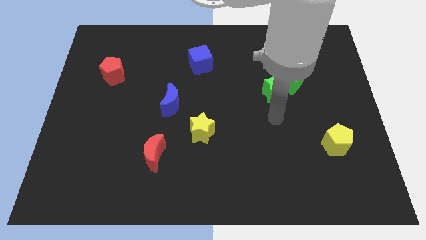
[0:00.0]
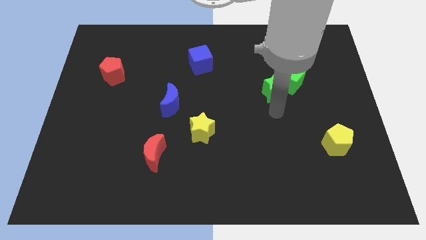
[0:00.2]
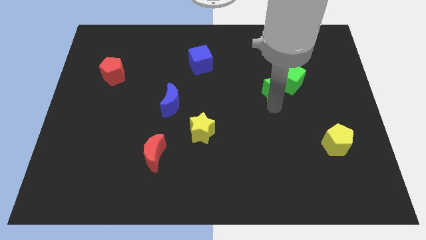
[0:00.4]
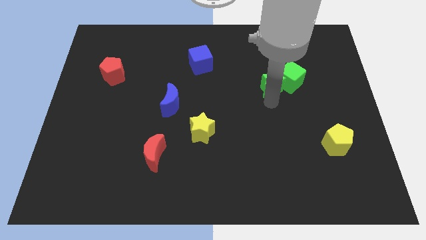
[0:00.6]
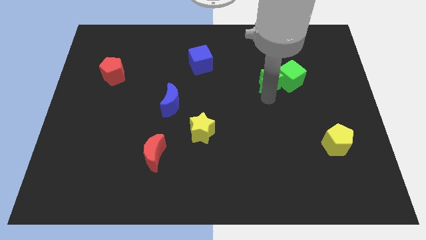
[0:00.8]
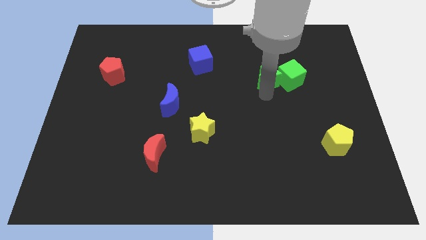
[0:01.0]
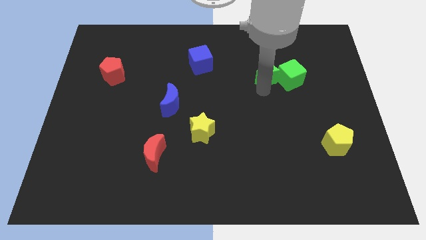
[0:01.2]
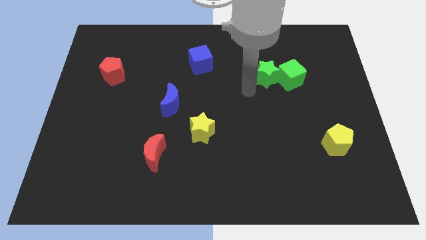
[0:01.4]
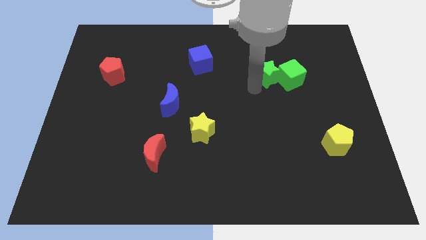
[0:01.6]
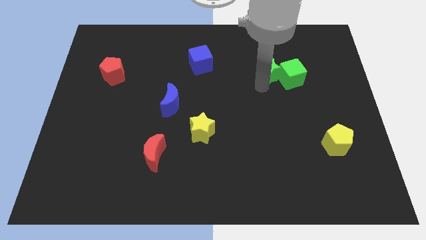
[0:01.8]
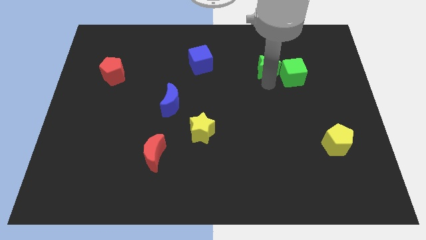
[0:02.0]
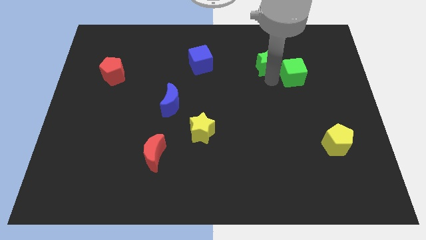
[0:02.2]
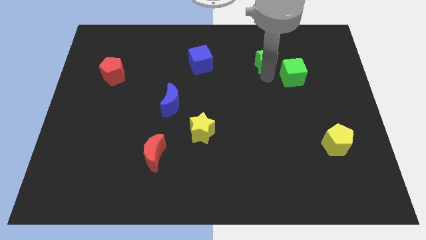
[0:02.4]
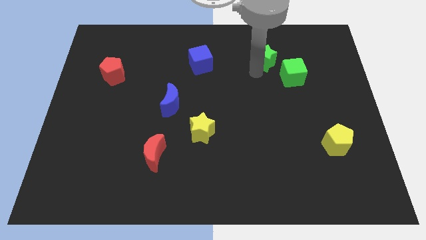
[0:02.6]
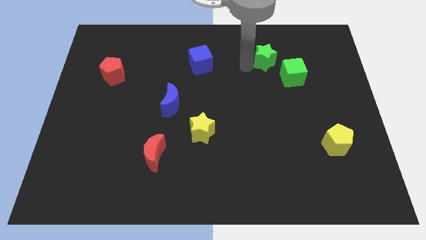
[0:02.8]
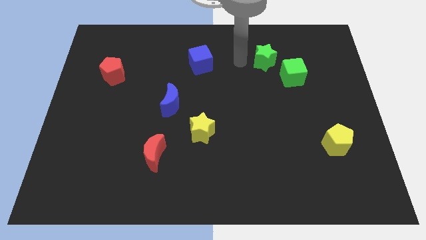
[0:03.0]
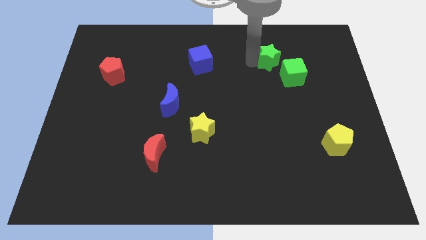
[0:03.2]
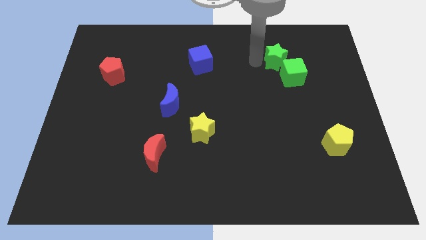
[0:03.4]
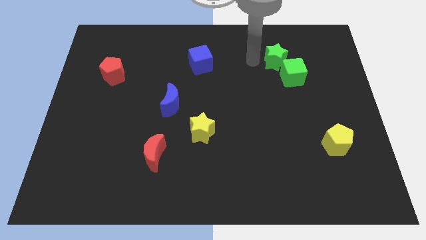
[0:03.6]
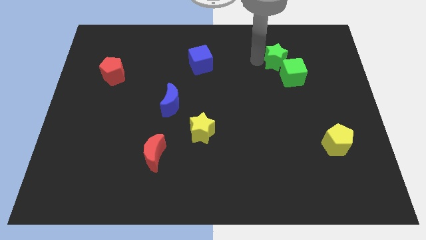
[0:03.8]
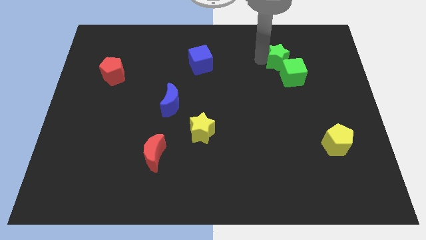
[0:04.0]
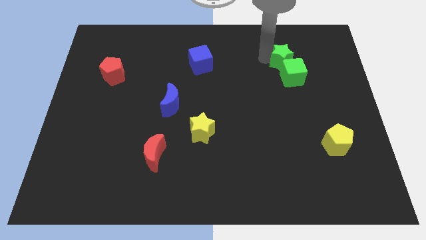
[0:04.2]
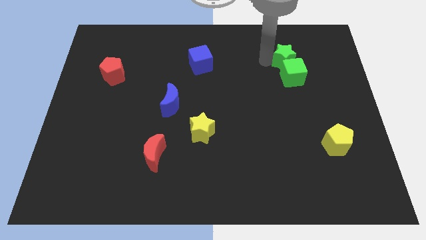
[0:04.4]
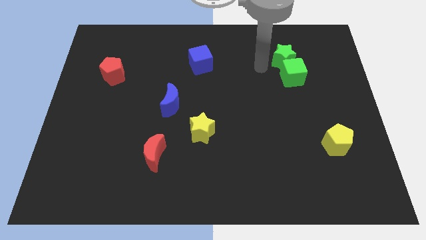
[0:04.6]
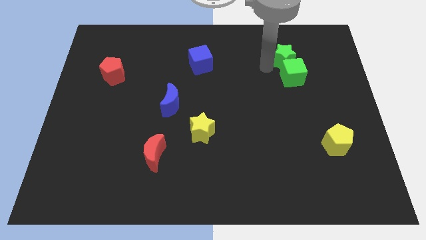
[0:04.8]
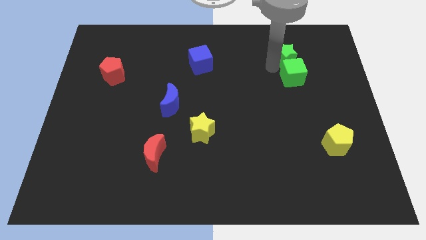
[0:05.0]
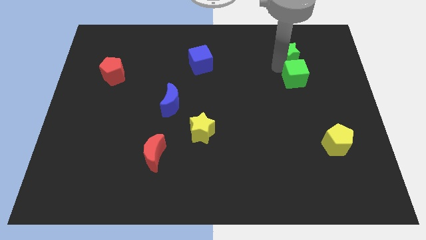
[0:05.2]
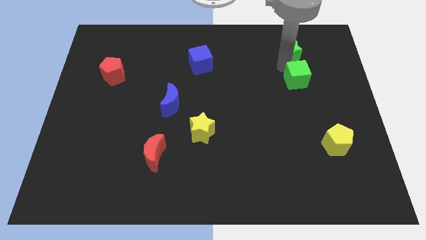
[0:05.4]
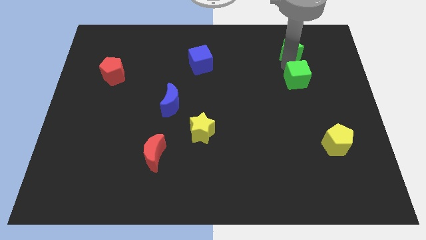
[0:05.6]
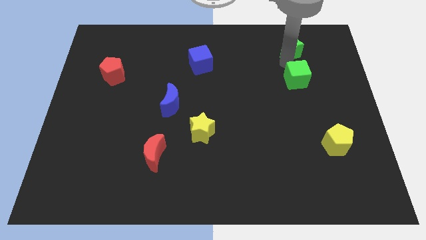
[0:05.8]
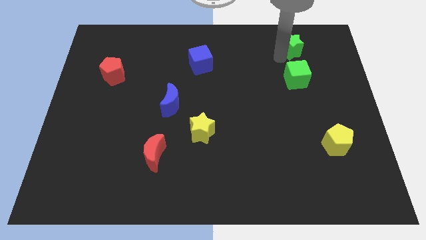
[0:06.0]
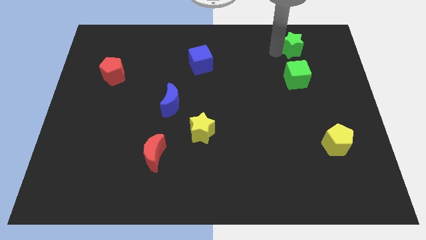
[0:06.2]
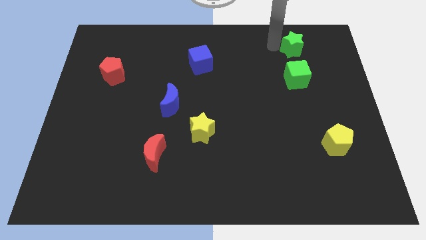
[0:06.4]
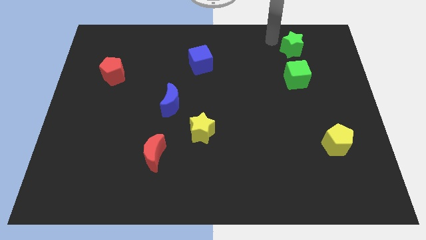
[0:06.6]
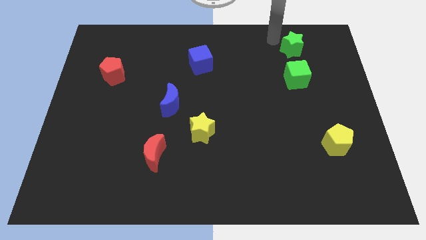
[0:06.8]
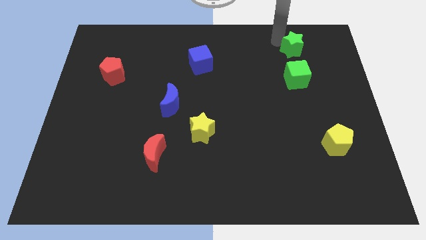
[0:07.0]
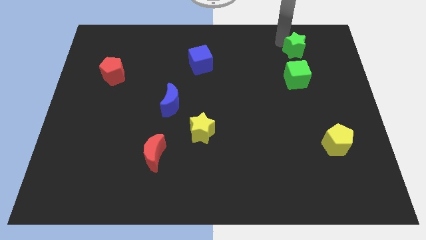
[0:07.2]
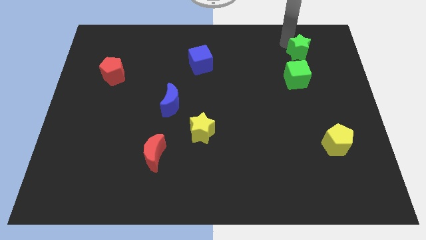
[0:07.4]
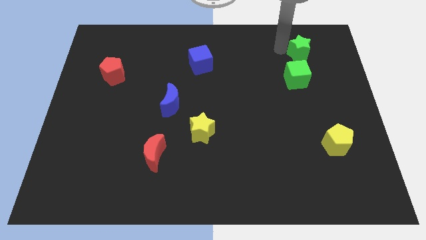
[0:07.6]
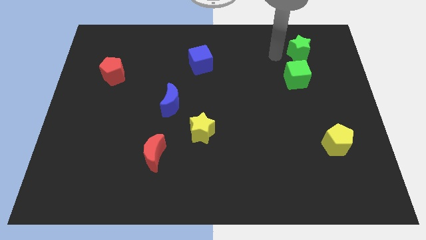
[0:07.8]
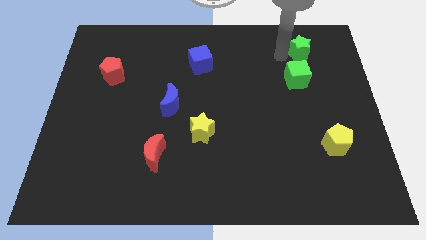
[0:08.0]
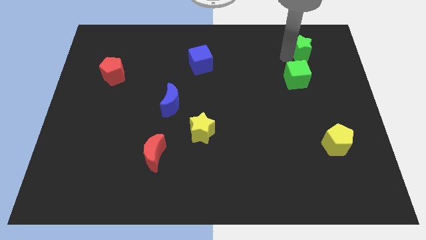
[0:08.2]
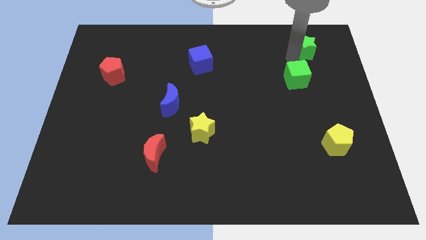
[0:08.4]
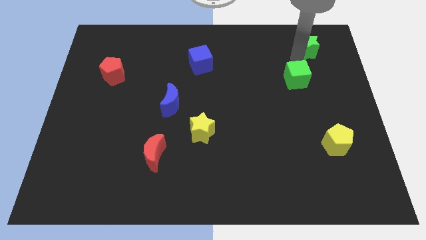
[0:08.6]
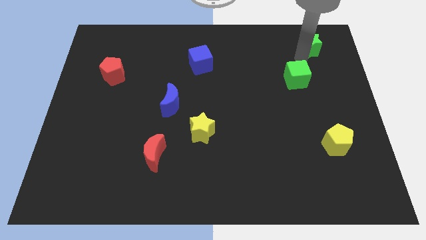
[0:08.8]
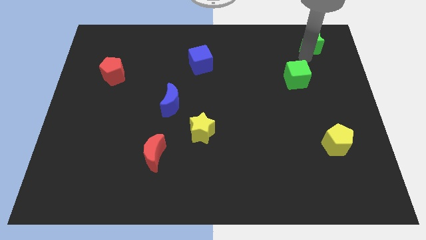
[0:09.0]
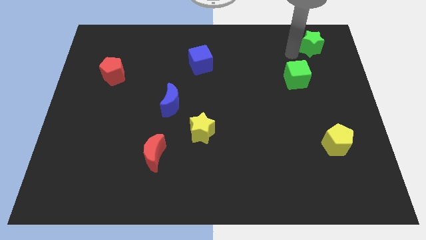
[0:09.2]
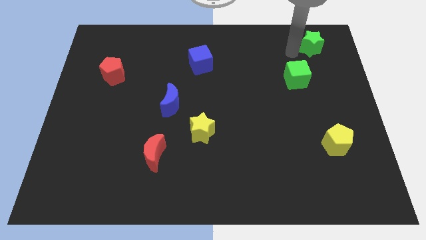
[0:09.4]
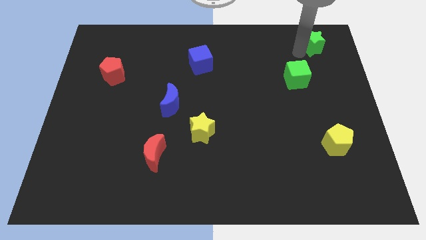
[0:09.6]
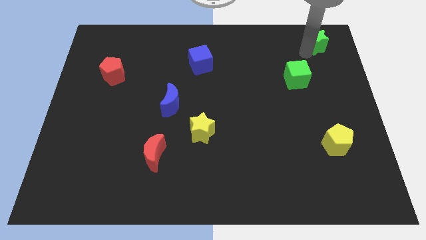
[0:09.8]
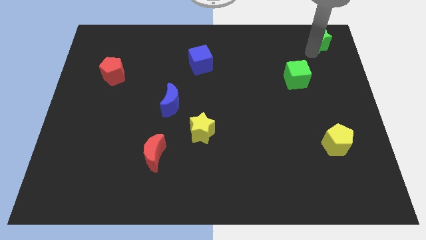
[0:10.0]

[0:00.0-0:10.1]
slide the green star to the top right of the board

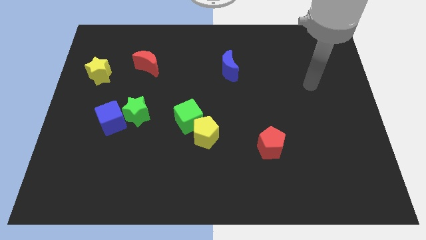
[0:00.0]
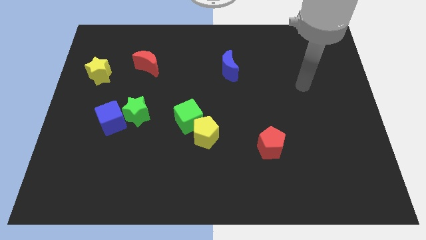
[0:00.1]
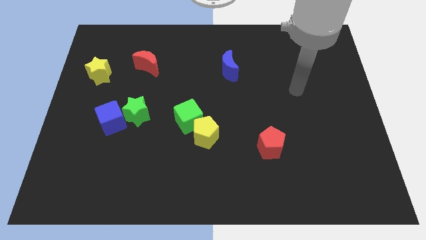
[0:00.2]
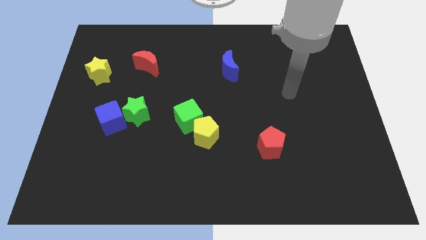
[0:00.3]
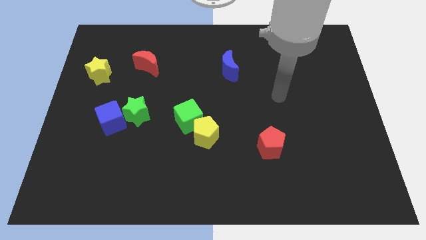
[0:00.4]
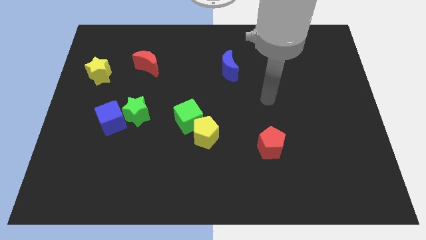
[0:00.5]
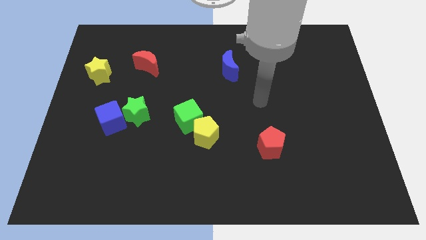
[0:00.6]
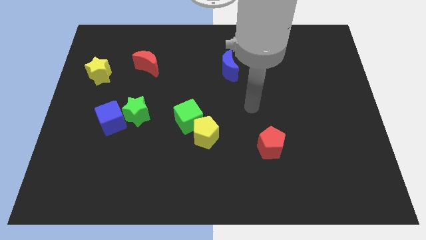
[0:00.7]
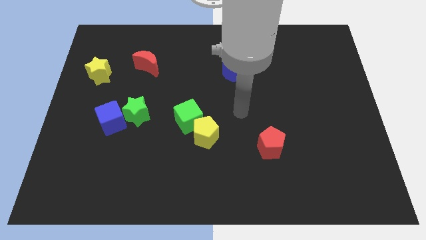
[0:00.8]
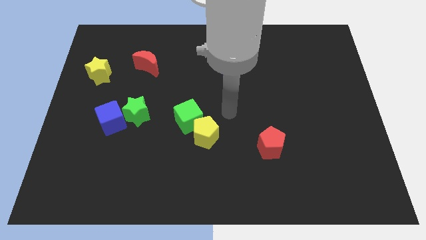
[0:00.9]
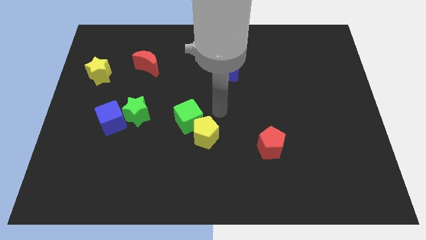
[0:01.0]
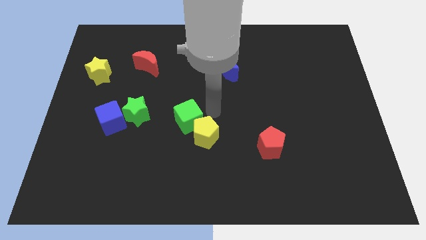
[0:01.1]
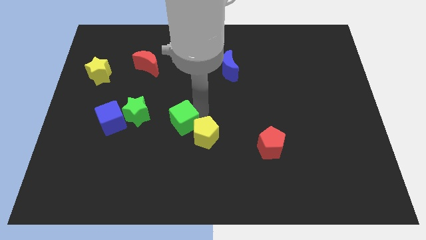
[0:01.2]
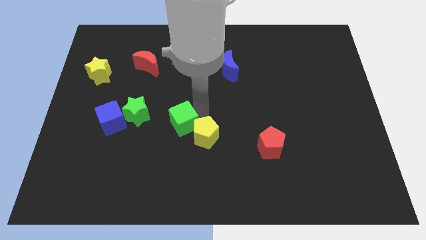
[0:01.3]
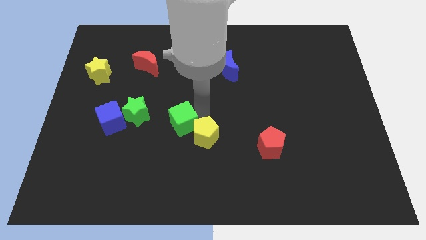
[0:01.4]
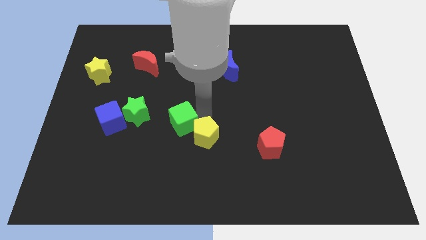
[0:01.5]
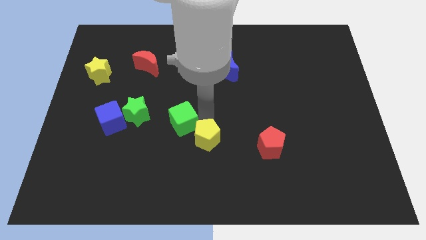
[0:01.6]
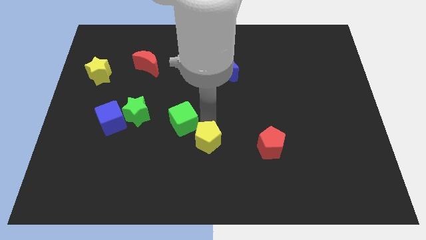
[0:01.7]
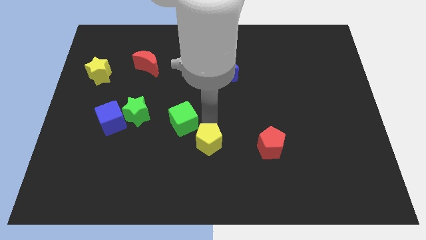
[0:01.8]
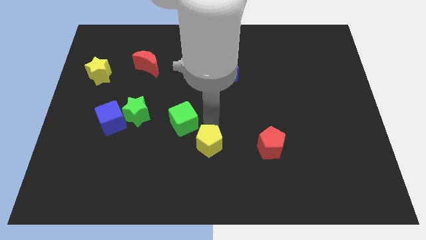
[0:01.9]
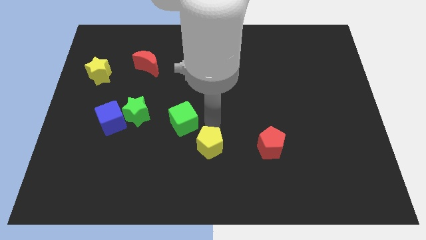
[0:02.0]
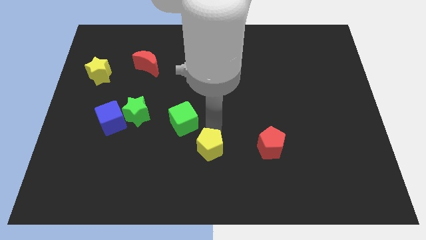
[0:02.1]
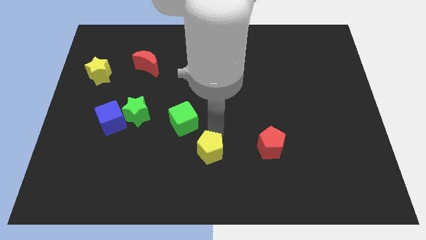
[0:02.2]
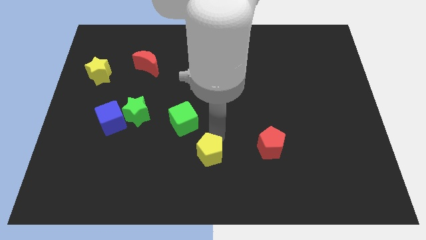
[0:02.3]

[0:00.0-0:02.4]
put the yellow pentagon to the bottom
